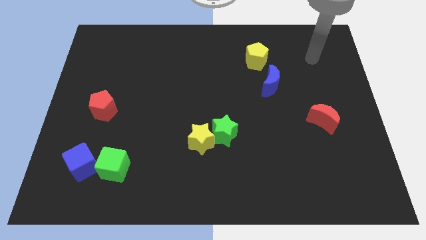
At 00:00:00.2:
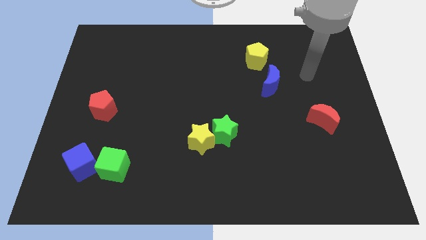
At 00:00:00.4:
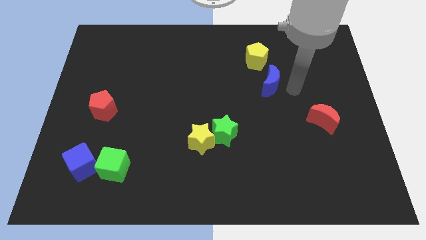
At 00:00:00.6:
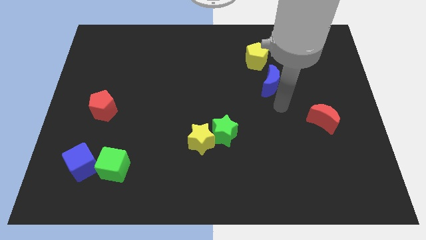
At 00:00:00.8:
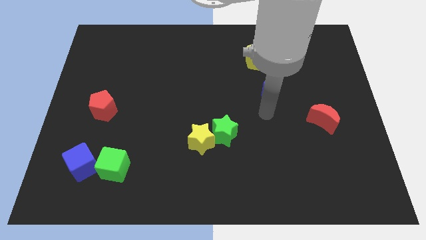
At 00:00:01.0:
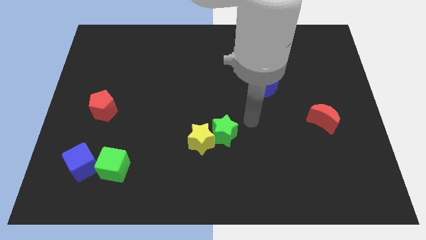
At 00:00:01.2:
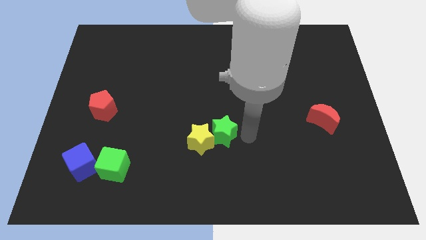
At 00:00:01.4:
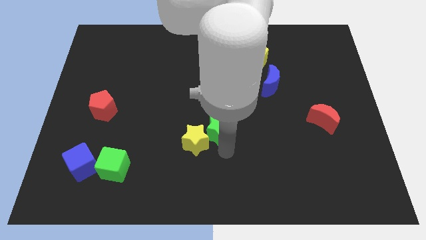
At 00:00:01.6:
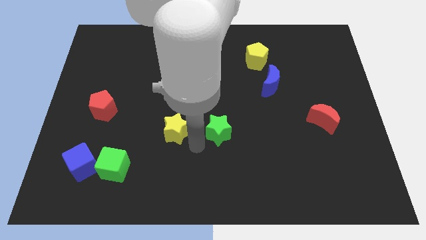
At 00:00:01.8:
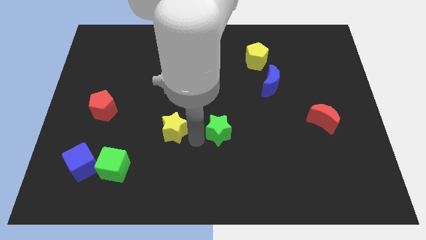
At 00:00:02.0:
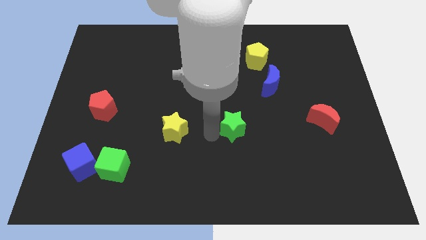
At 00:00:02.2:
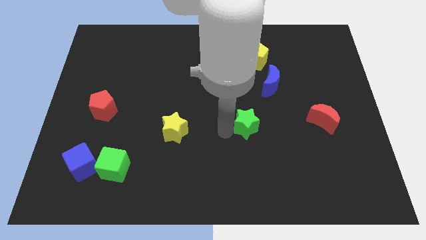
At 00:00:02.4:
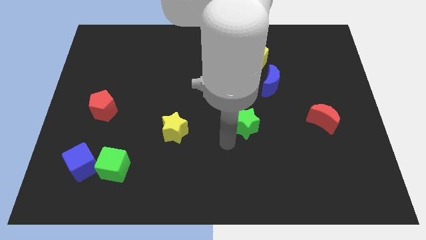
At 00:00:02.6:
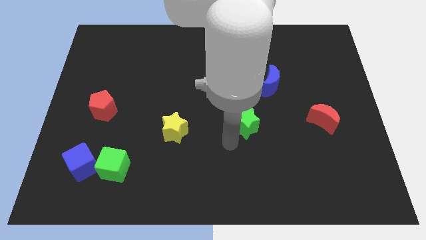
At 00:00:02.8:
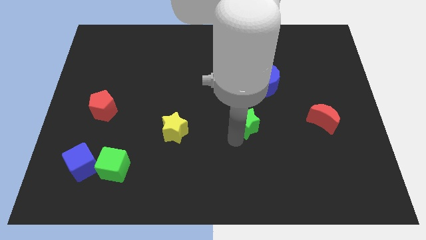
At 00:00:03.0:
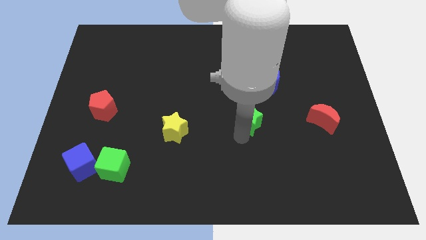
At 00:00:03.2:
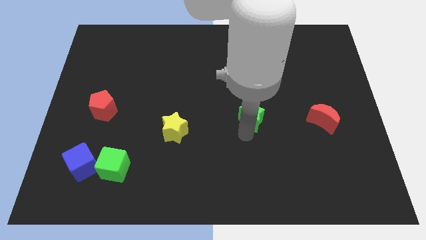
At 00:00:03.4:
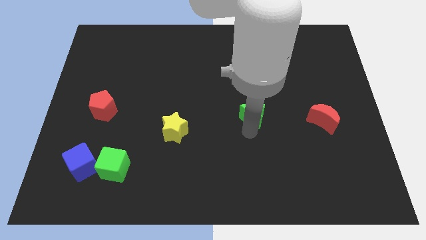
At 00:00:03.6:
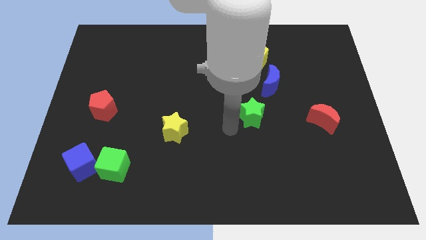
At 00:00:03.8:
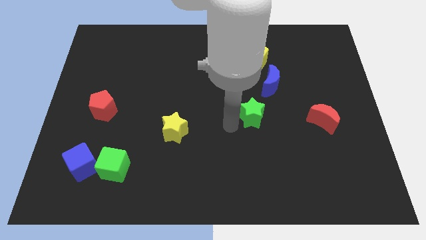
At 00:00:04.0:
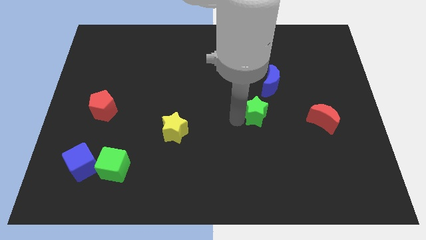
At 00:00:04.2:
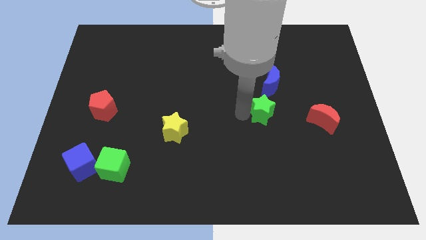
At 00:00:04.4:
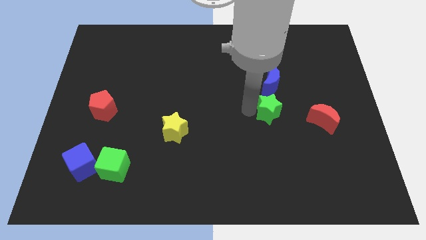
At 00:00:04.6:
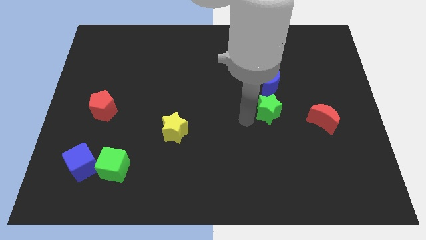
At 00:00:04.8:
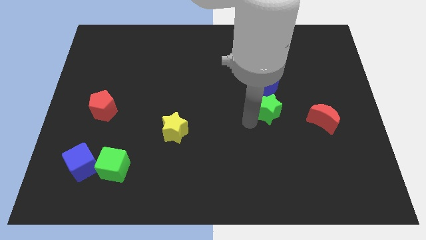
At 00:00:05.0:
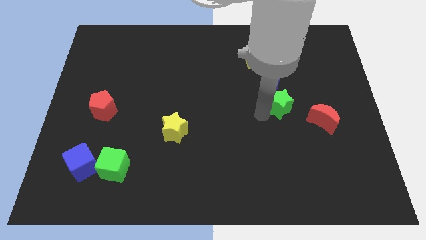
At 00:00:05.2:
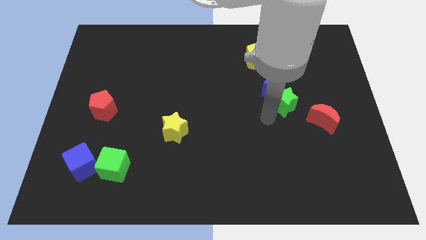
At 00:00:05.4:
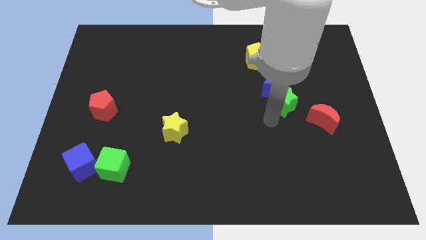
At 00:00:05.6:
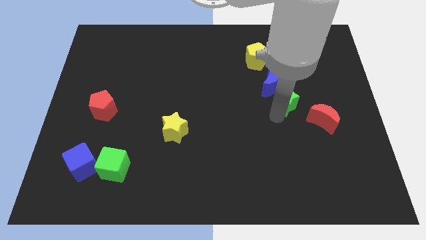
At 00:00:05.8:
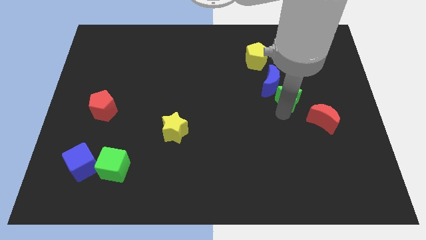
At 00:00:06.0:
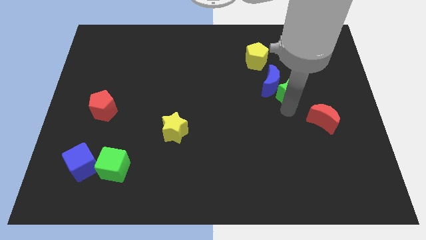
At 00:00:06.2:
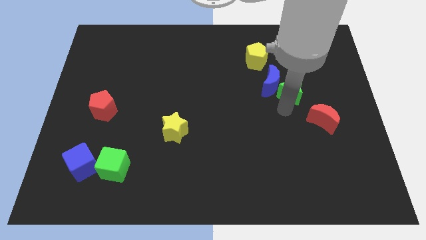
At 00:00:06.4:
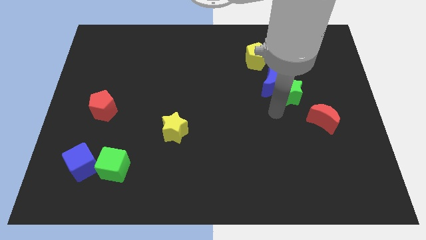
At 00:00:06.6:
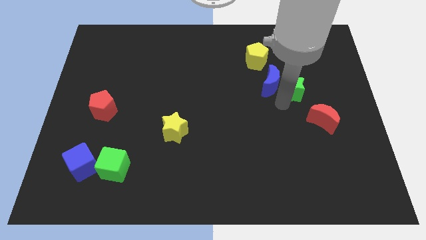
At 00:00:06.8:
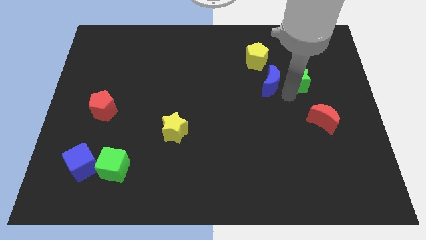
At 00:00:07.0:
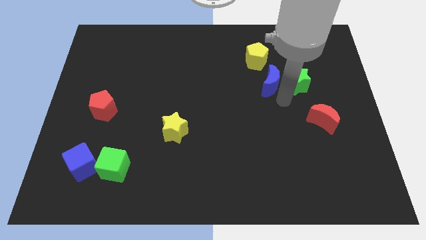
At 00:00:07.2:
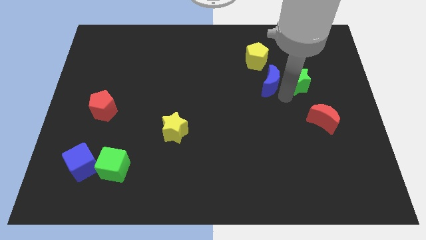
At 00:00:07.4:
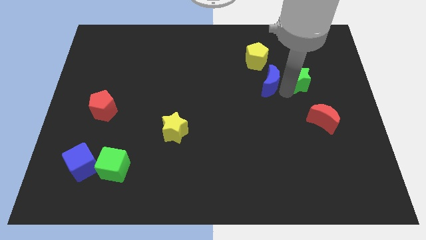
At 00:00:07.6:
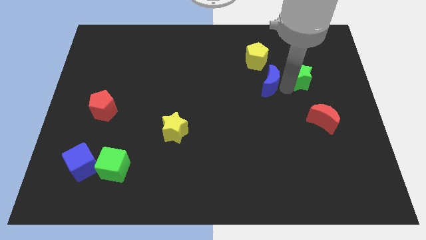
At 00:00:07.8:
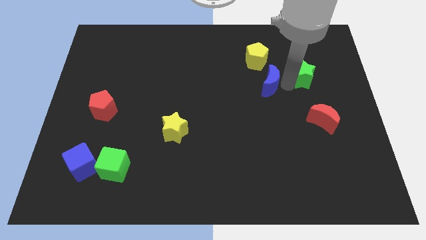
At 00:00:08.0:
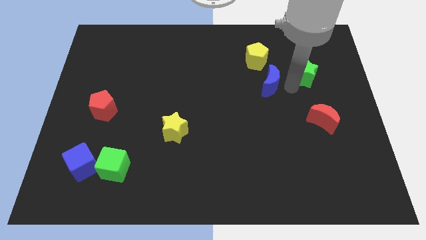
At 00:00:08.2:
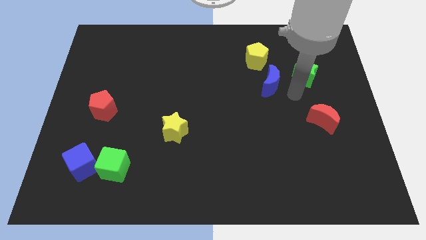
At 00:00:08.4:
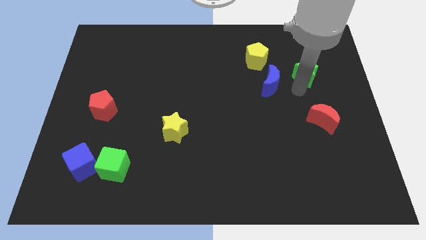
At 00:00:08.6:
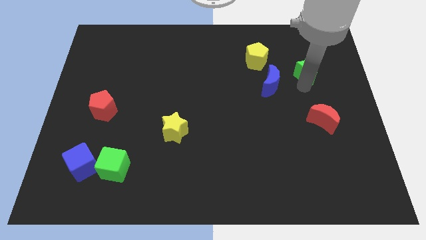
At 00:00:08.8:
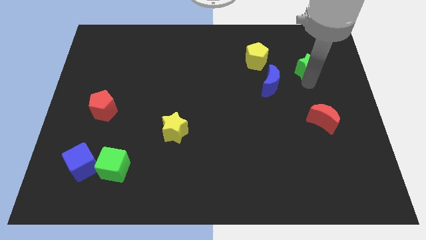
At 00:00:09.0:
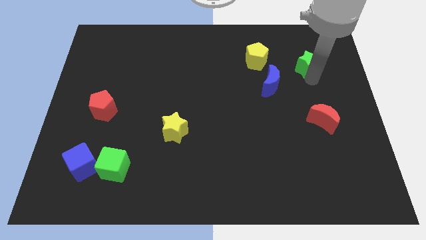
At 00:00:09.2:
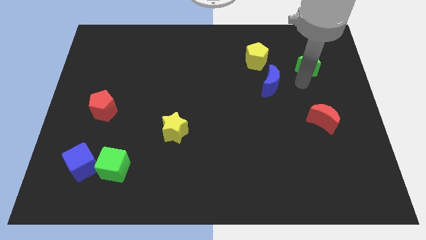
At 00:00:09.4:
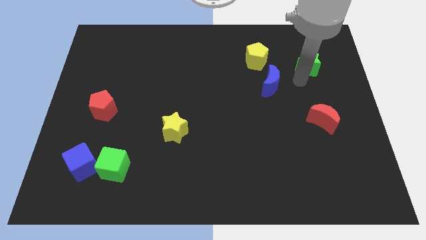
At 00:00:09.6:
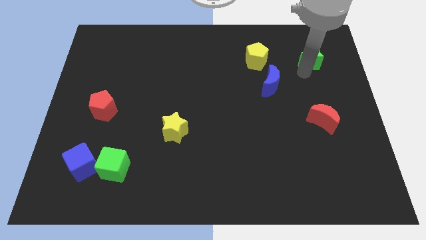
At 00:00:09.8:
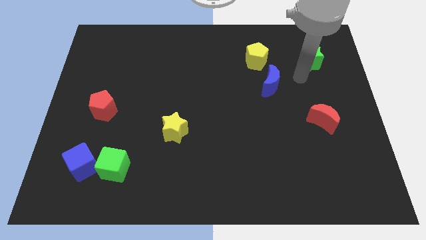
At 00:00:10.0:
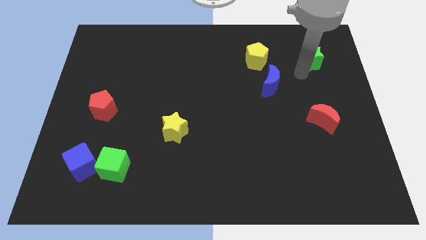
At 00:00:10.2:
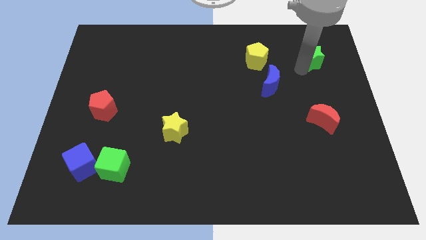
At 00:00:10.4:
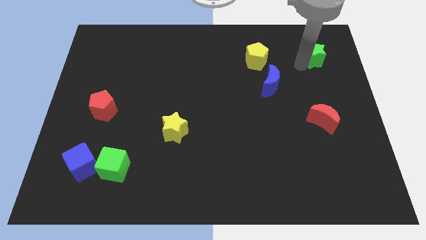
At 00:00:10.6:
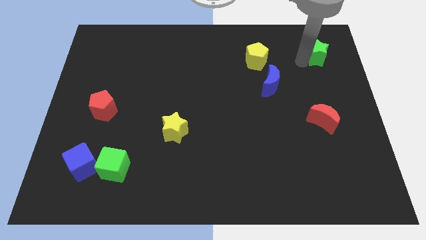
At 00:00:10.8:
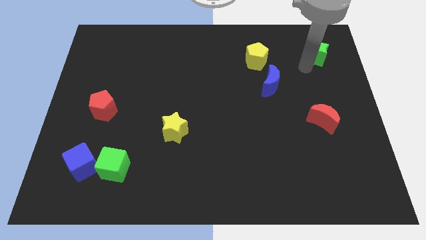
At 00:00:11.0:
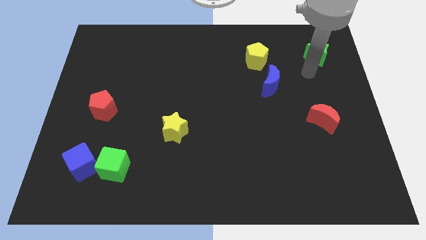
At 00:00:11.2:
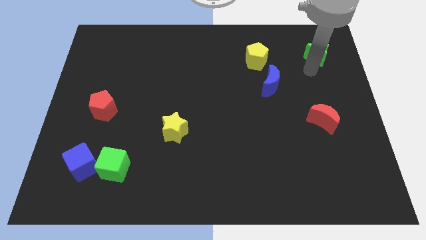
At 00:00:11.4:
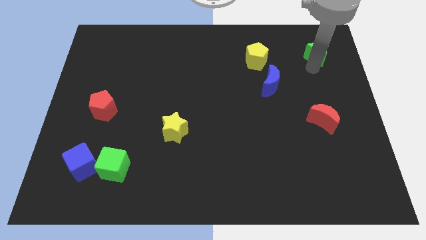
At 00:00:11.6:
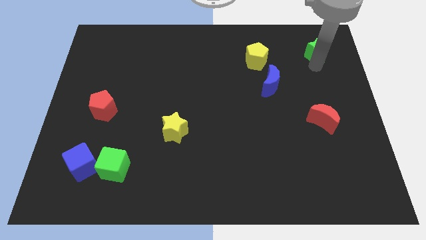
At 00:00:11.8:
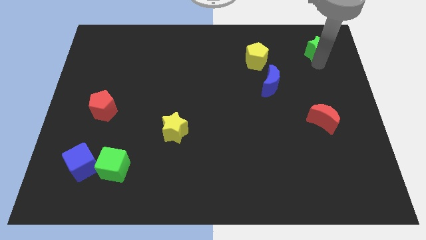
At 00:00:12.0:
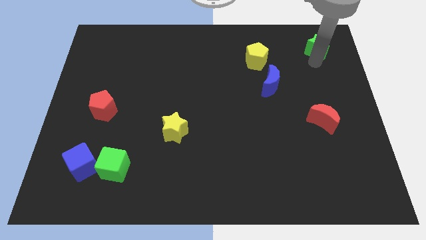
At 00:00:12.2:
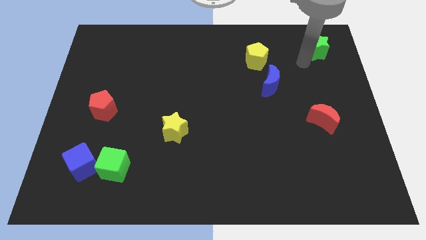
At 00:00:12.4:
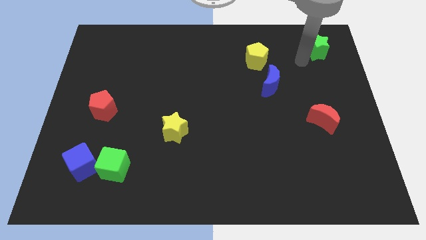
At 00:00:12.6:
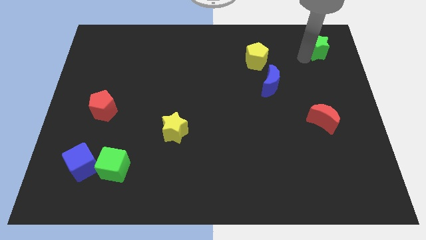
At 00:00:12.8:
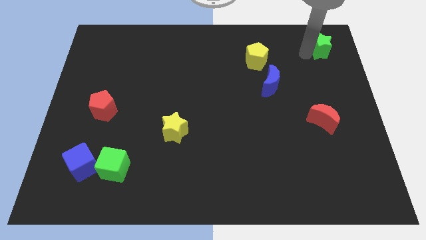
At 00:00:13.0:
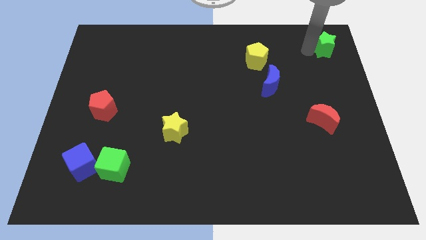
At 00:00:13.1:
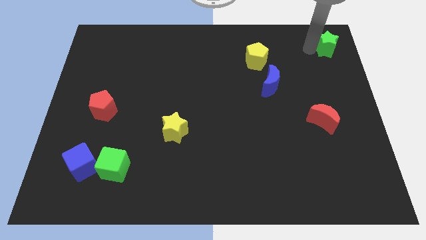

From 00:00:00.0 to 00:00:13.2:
move the green star to the top right of the board
